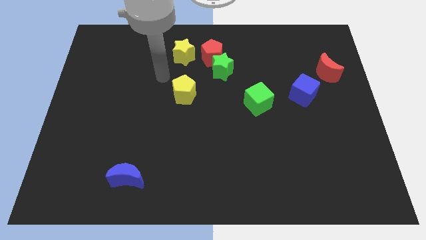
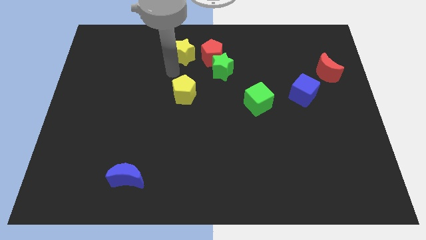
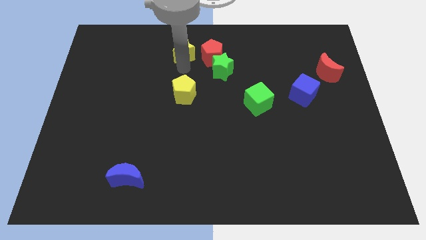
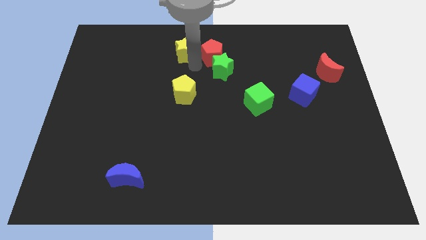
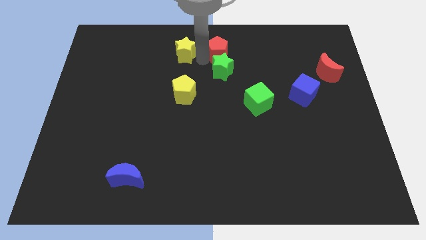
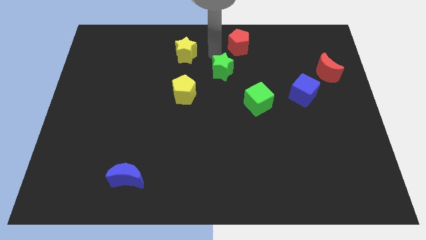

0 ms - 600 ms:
move the green star away from the red pentagon

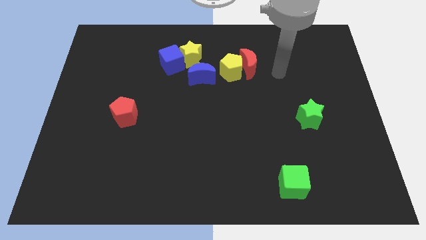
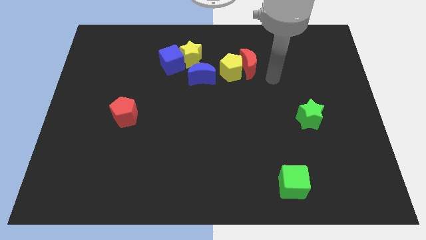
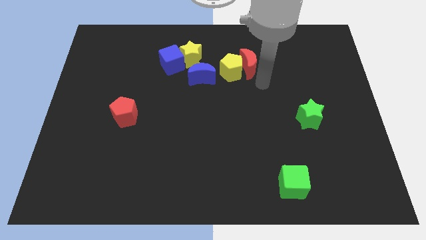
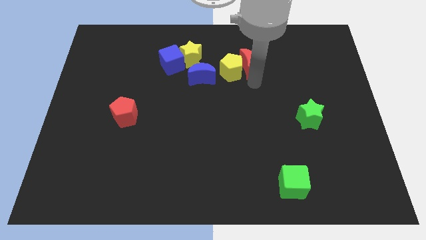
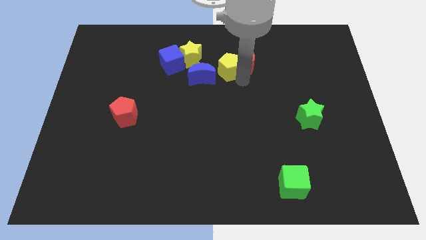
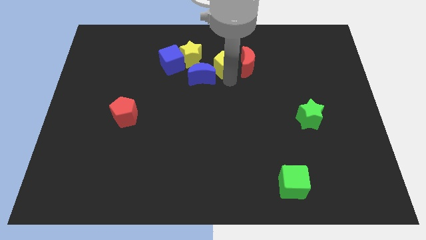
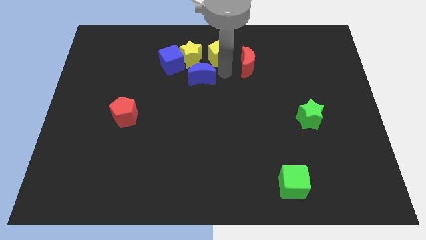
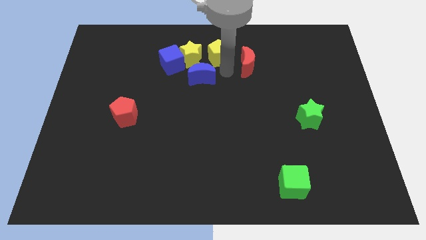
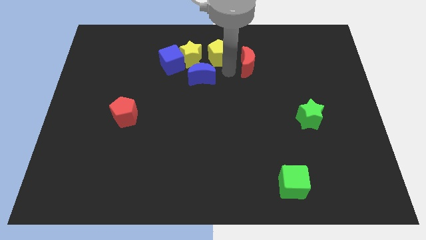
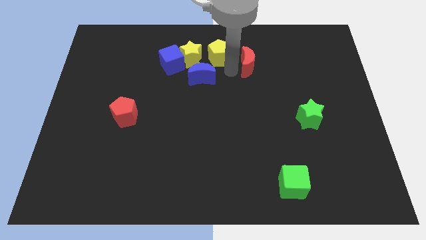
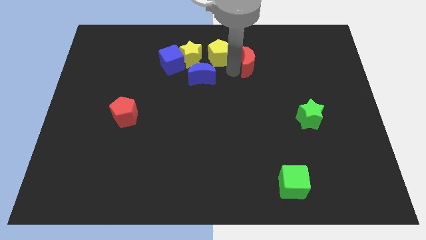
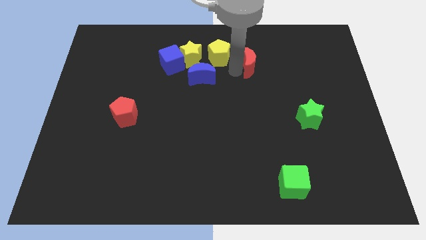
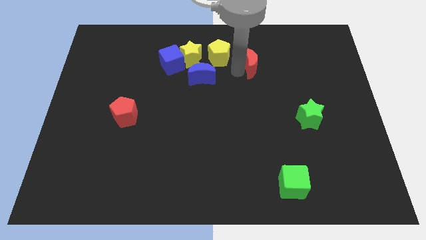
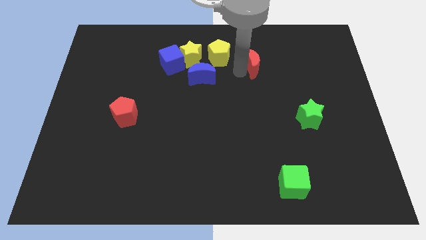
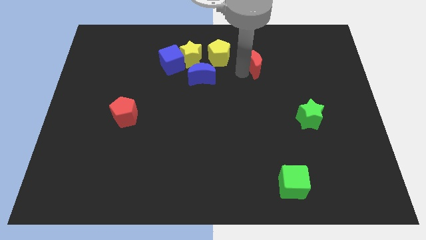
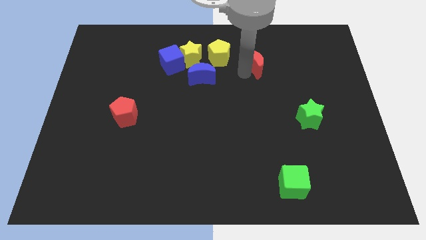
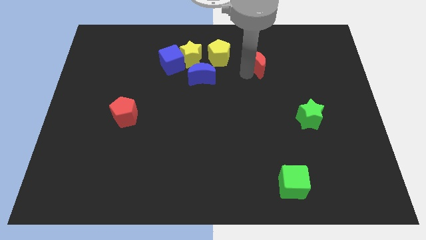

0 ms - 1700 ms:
move the red moon away from the yellow pentagon

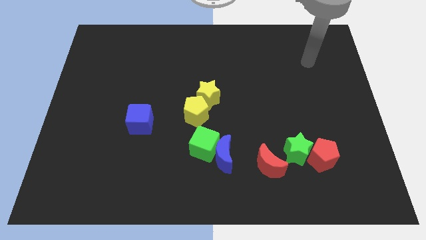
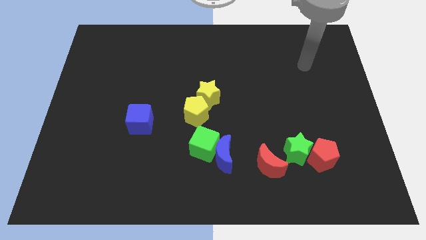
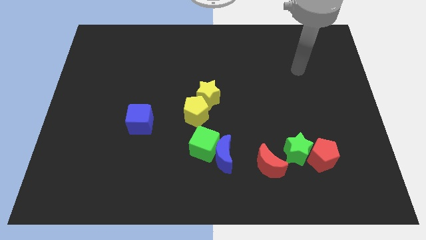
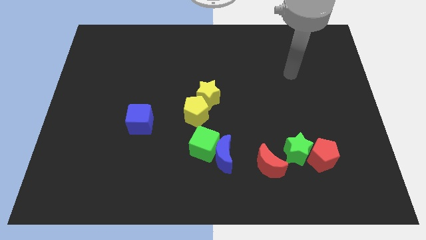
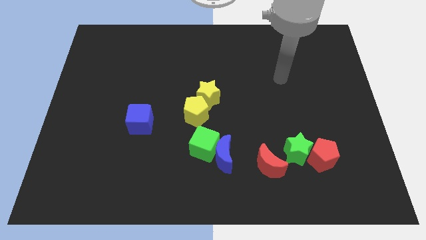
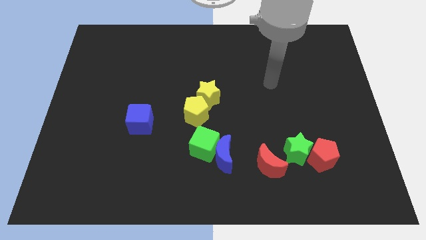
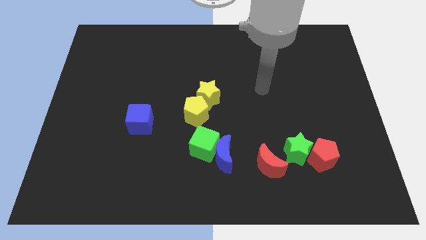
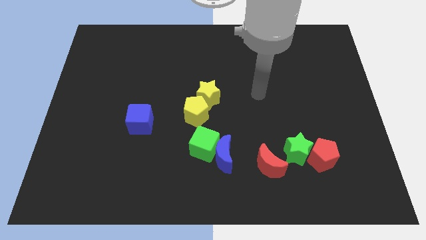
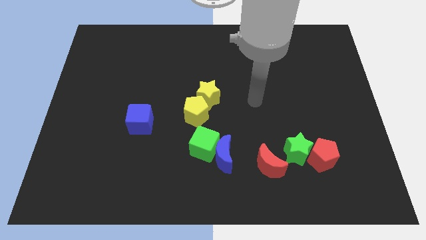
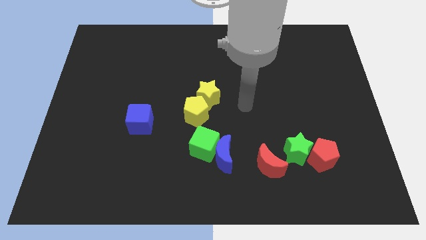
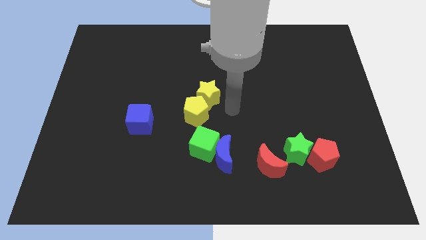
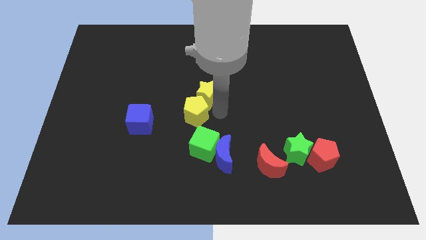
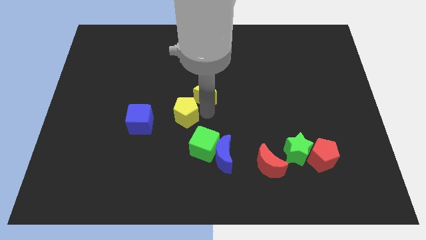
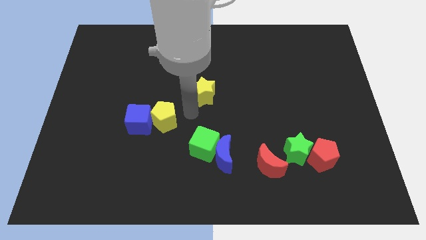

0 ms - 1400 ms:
separate the yellow star from the yellow pentagon

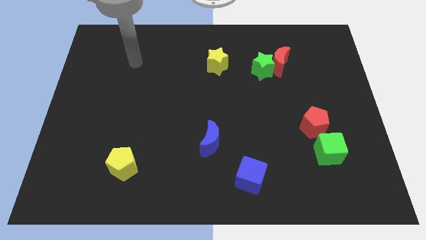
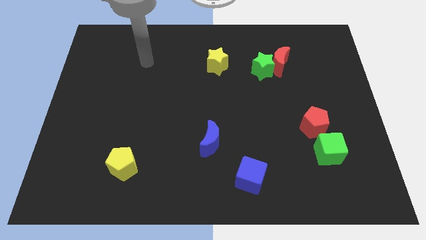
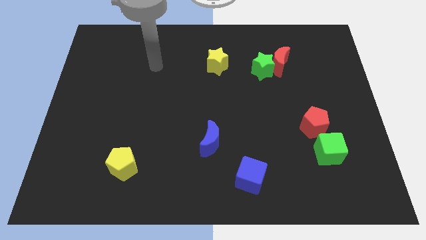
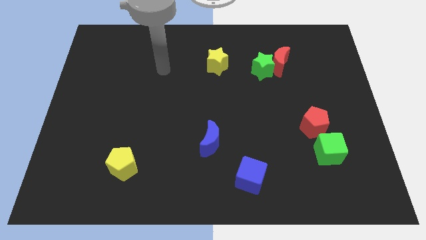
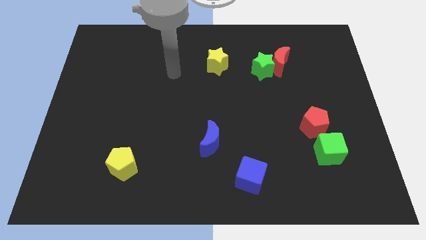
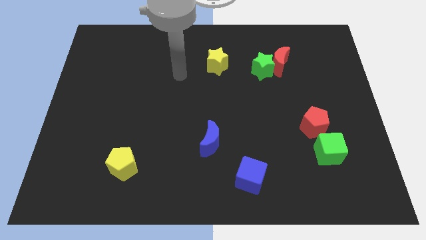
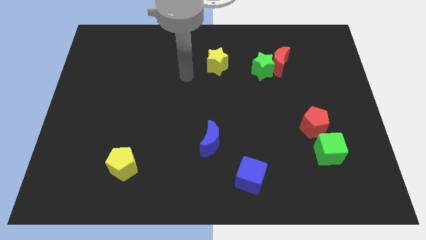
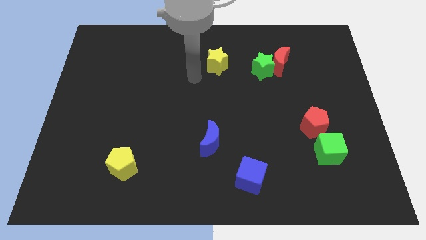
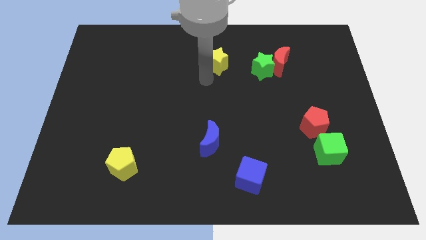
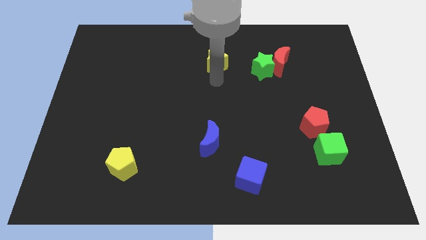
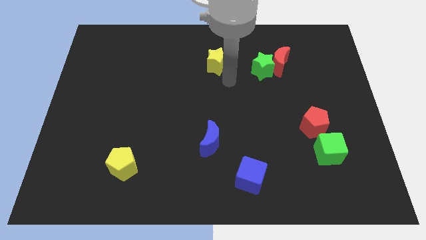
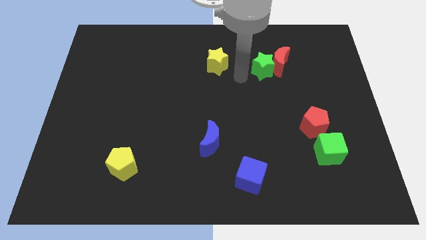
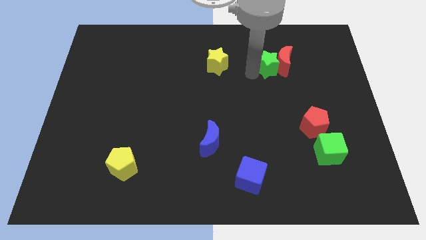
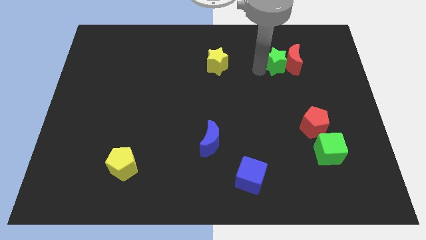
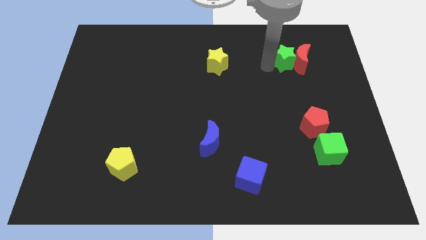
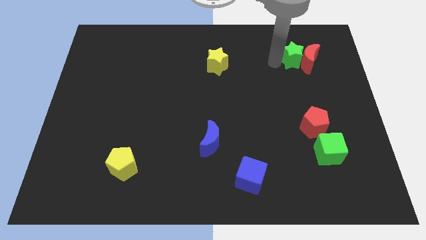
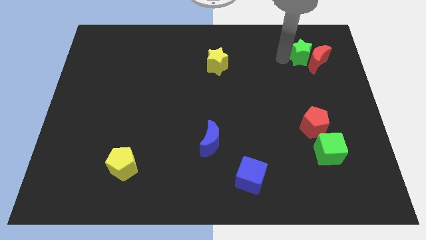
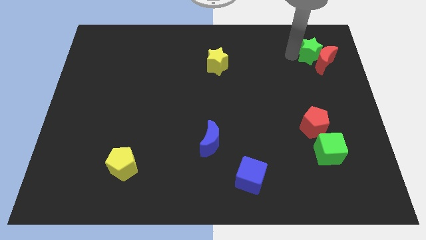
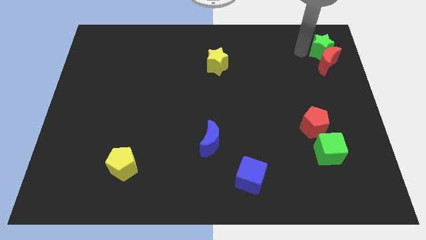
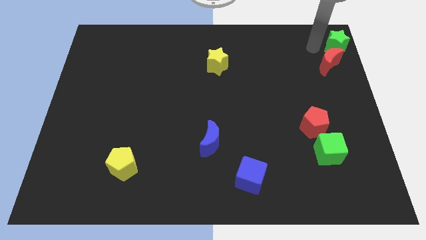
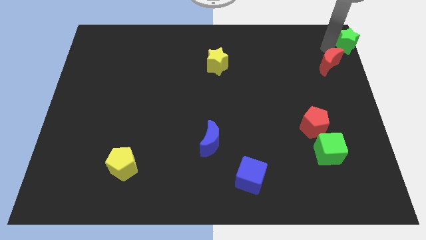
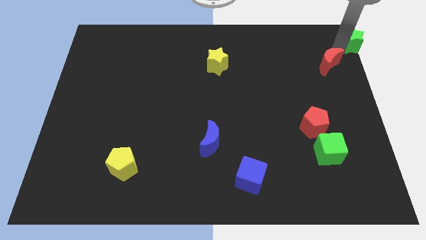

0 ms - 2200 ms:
move the red moon away from the green star

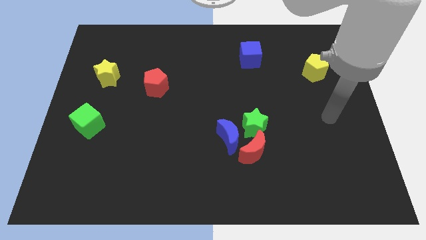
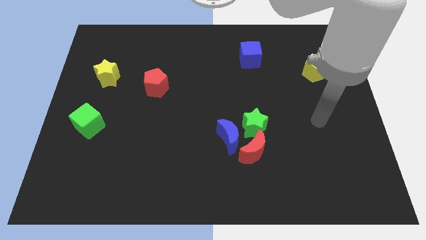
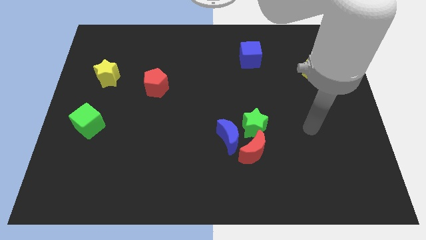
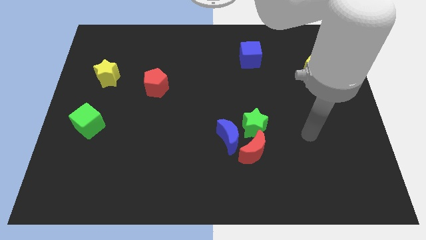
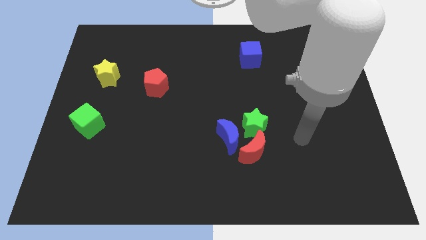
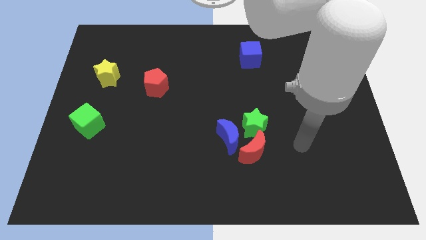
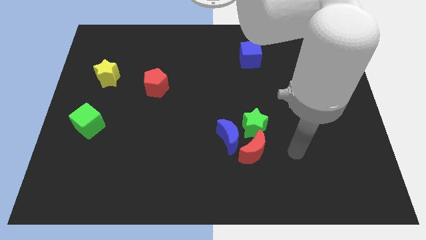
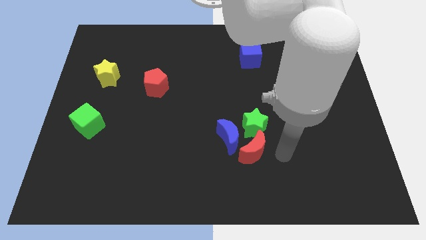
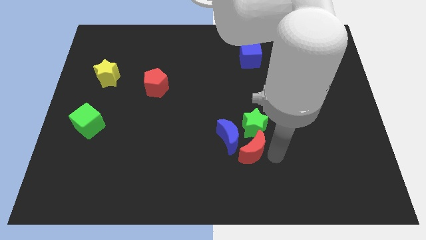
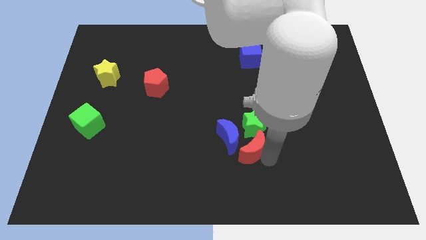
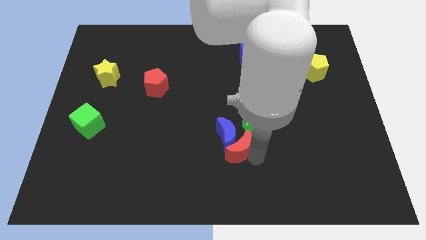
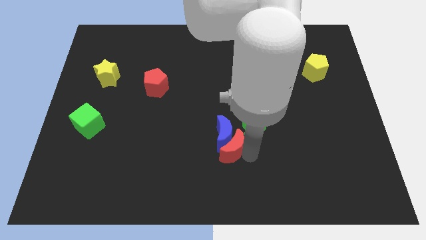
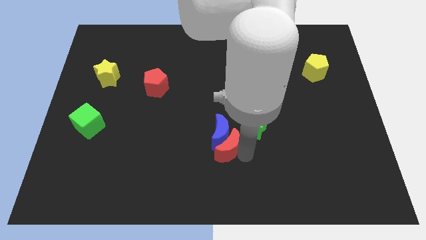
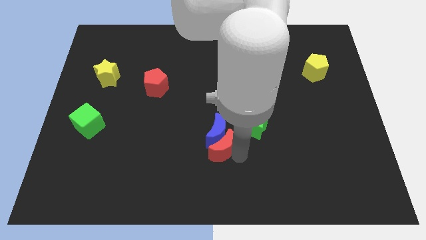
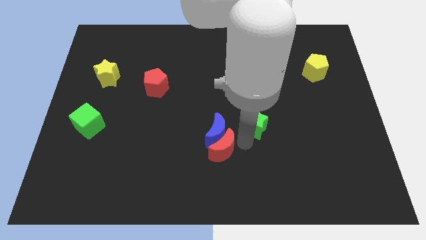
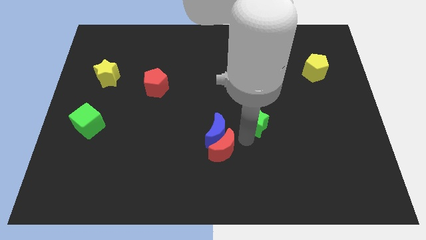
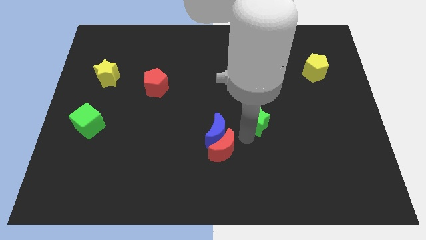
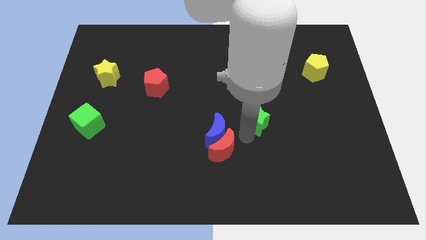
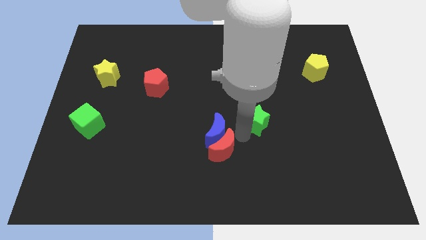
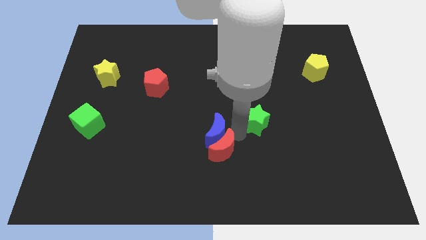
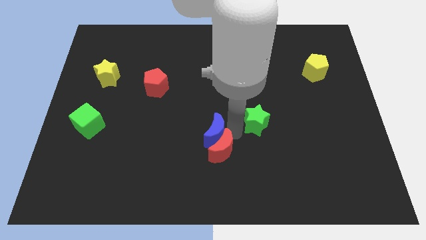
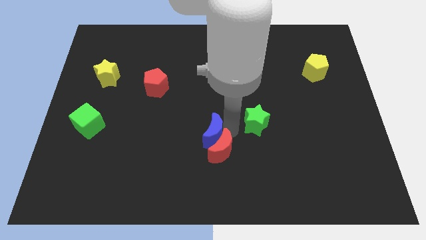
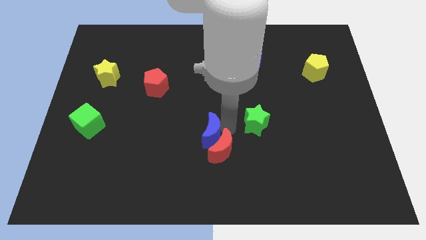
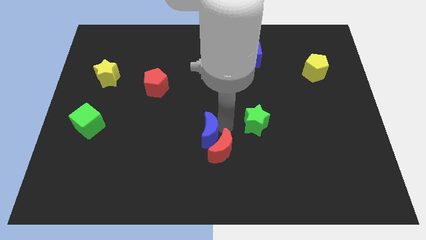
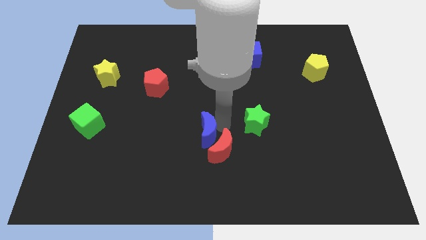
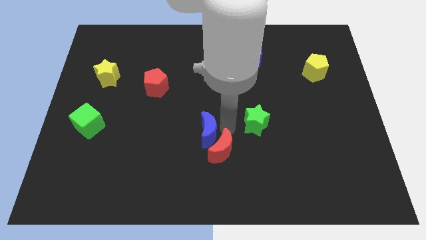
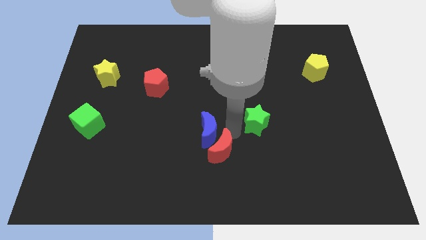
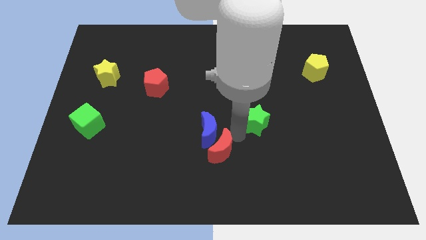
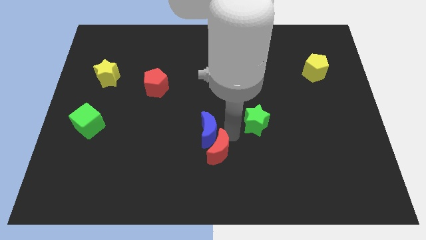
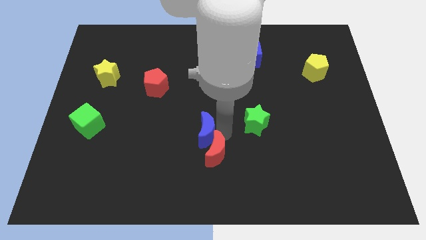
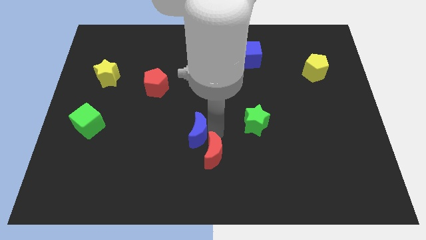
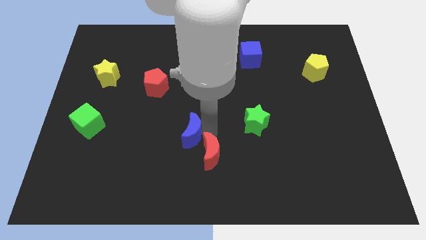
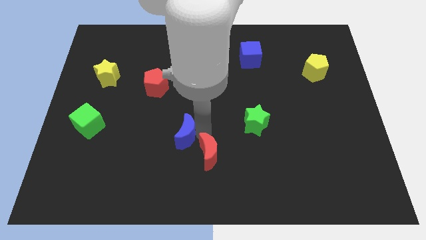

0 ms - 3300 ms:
separate the blue moon from the green star and red moon
